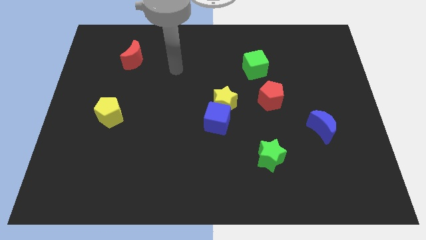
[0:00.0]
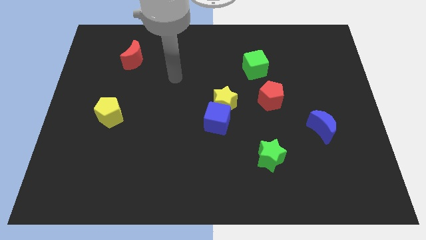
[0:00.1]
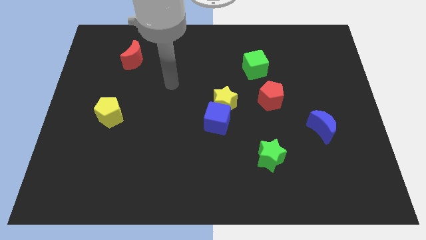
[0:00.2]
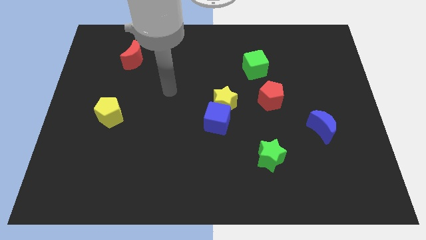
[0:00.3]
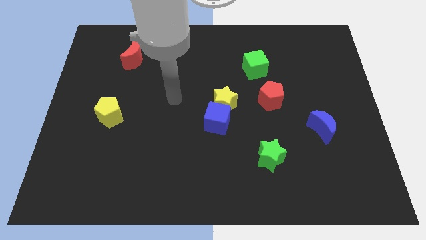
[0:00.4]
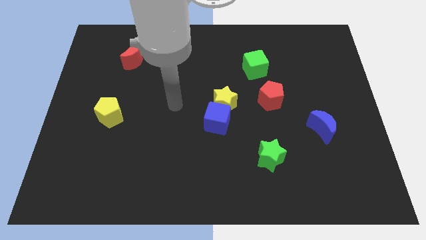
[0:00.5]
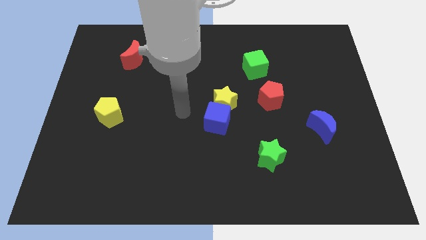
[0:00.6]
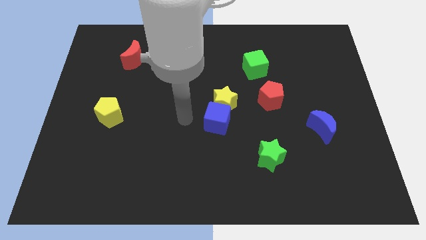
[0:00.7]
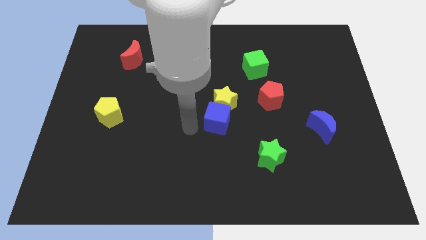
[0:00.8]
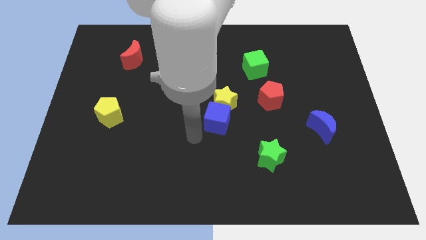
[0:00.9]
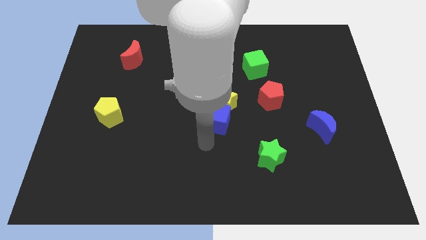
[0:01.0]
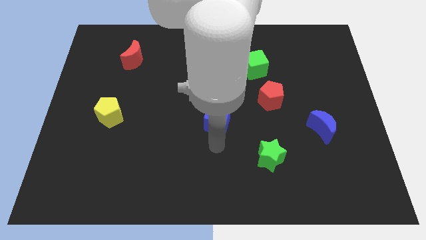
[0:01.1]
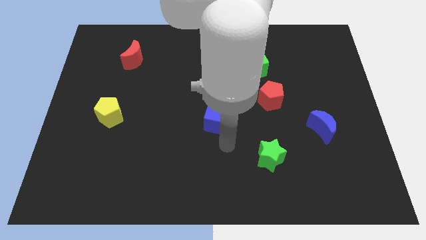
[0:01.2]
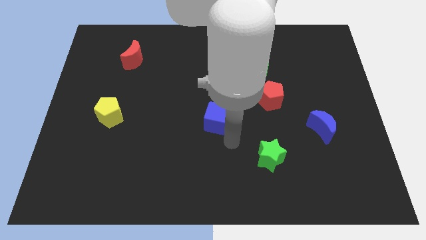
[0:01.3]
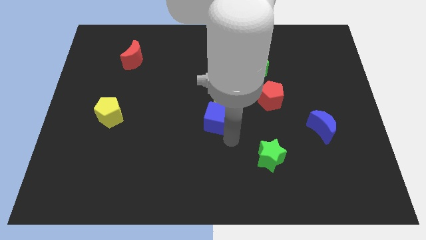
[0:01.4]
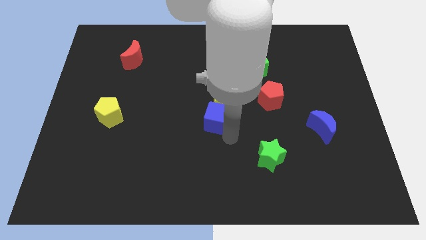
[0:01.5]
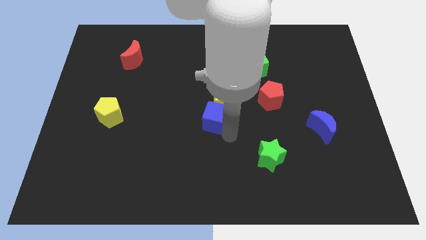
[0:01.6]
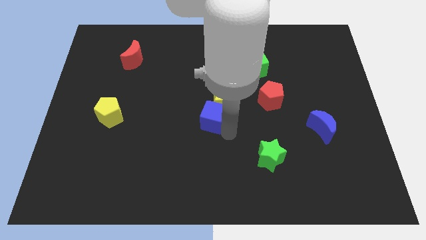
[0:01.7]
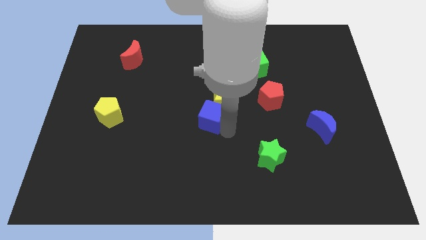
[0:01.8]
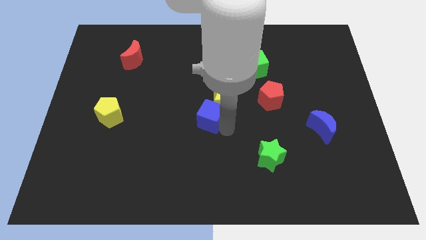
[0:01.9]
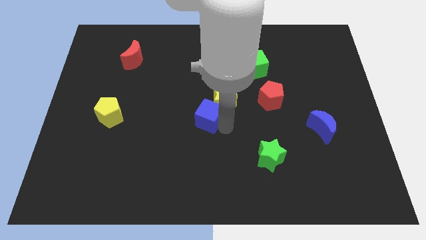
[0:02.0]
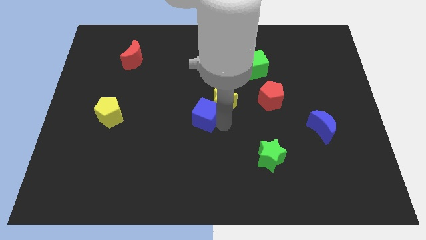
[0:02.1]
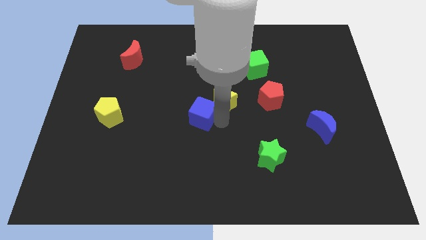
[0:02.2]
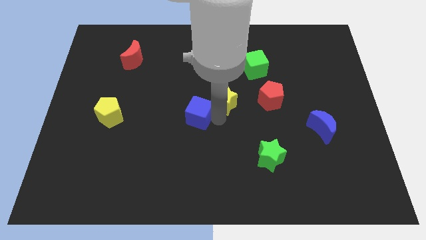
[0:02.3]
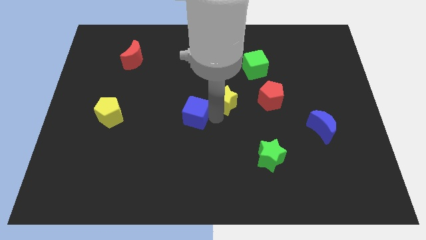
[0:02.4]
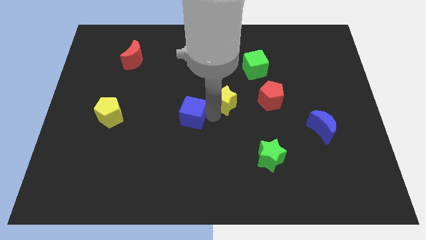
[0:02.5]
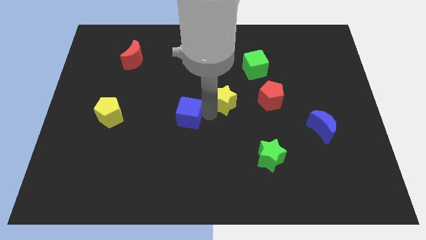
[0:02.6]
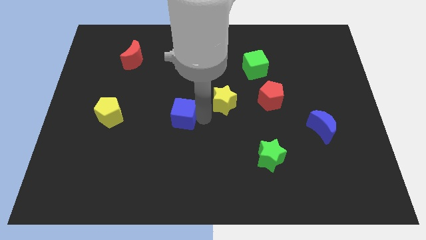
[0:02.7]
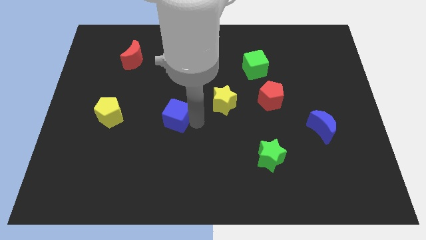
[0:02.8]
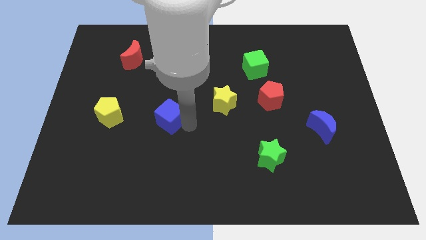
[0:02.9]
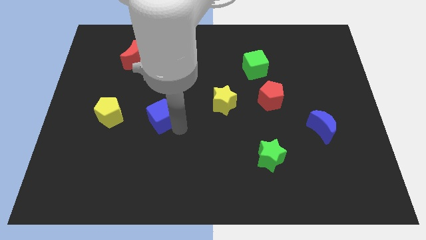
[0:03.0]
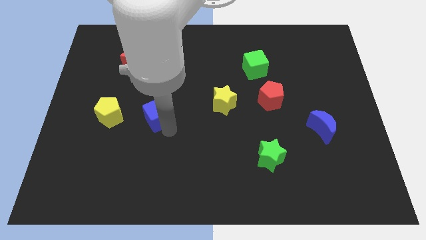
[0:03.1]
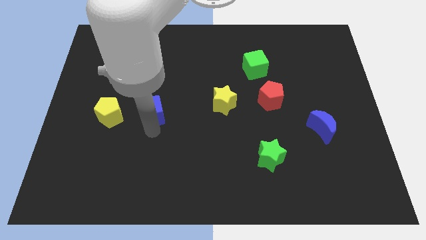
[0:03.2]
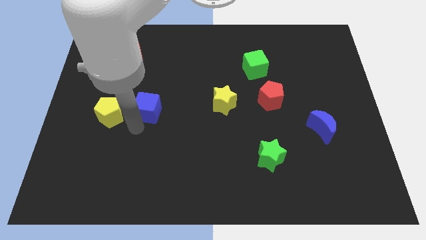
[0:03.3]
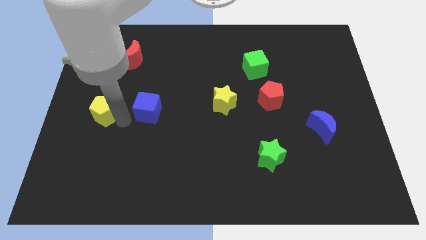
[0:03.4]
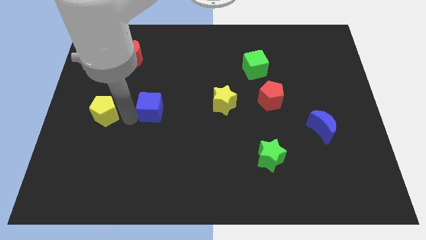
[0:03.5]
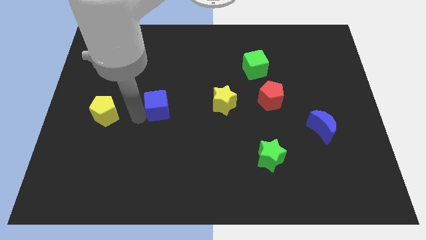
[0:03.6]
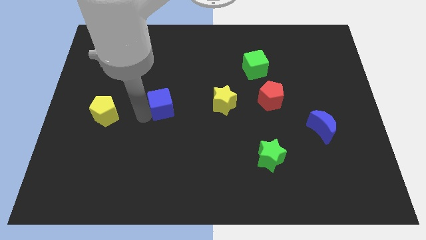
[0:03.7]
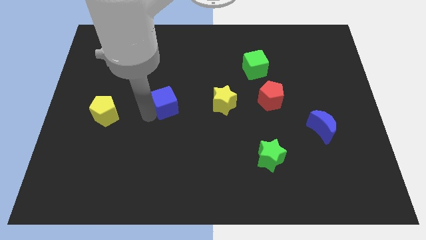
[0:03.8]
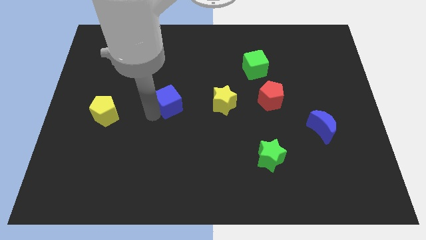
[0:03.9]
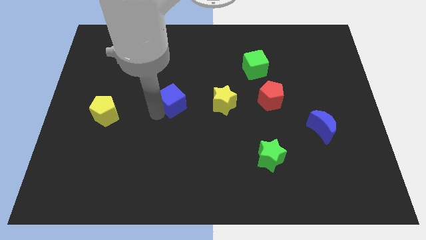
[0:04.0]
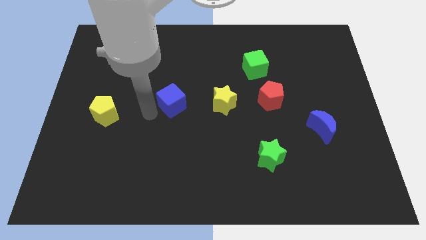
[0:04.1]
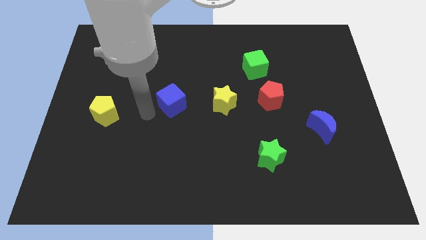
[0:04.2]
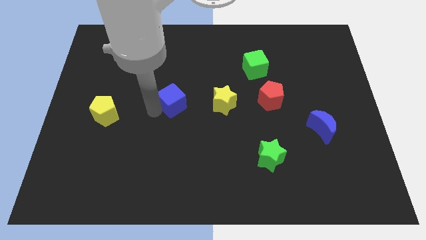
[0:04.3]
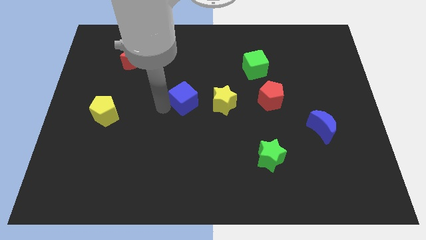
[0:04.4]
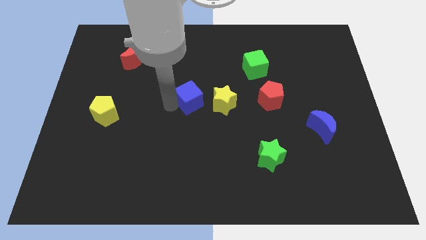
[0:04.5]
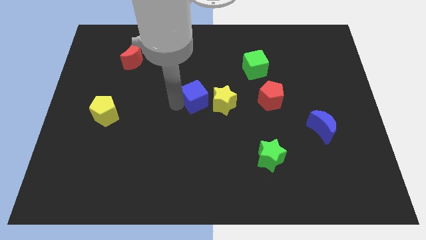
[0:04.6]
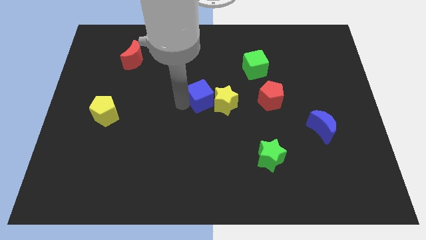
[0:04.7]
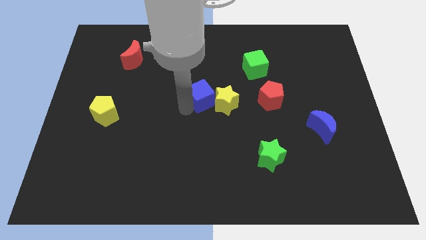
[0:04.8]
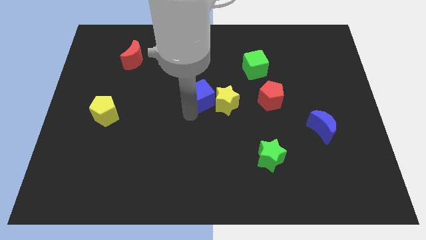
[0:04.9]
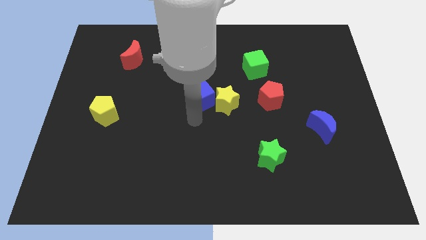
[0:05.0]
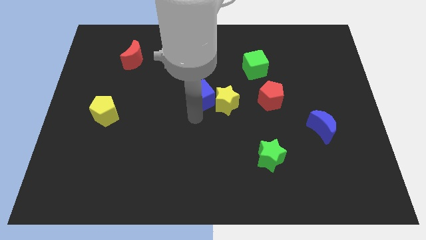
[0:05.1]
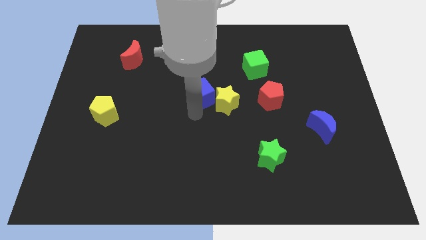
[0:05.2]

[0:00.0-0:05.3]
slightly push the blue cube upwards

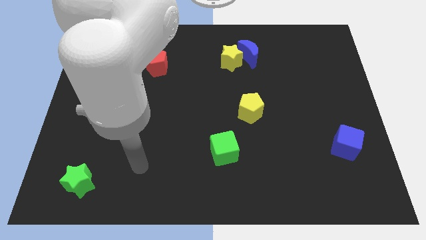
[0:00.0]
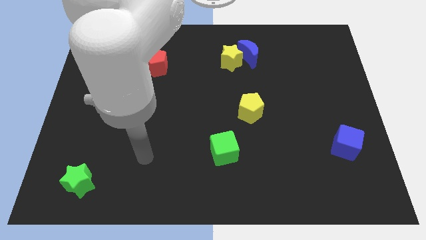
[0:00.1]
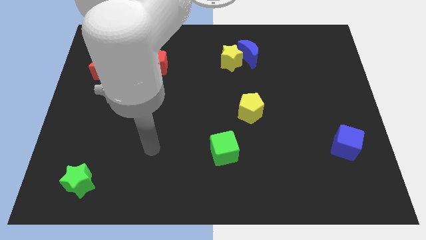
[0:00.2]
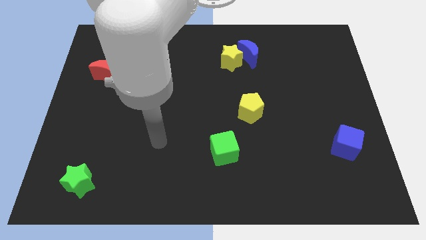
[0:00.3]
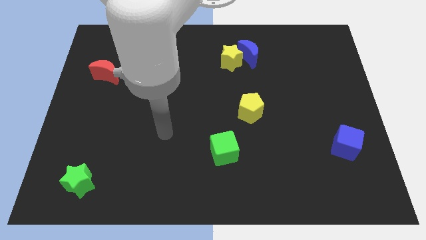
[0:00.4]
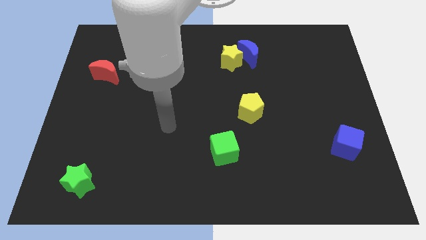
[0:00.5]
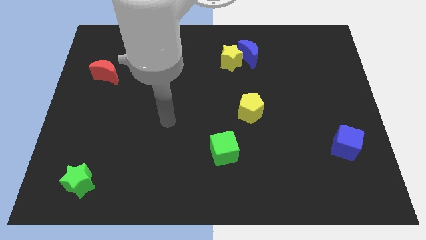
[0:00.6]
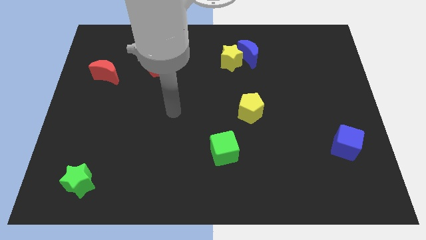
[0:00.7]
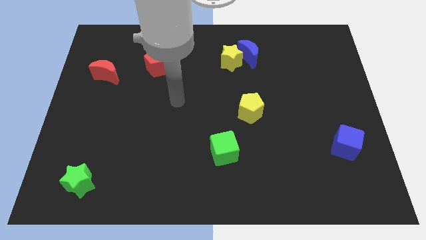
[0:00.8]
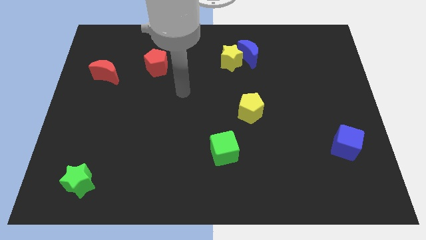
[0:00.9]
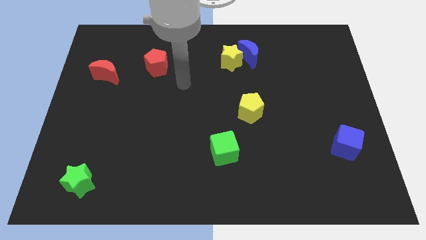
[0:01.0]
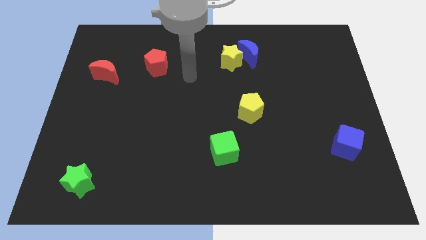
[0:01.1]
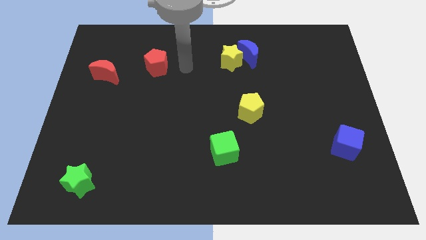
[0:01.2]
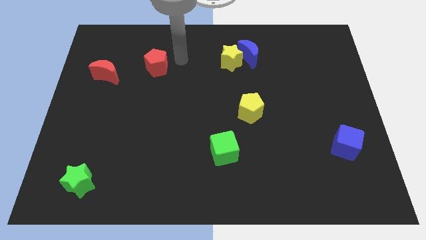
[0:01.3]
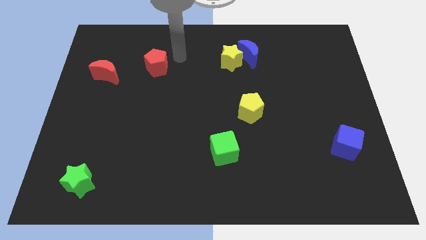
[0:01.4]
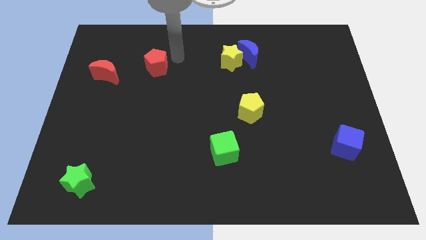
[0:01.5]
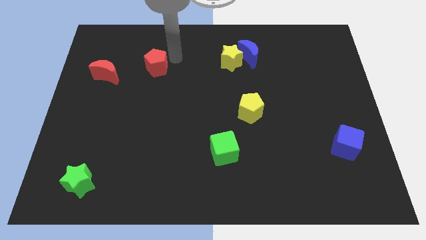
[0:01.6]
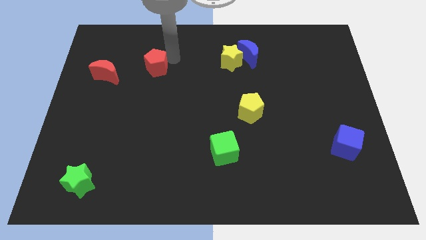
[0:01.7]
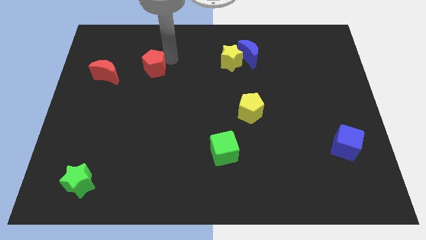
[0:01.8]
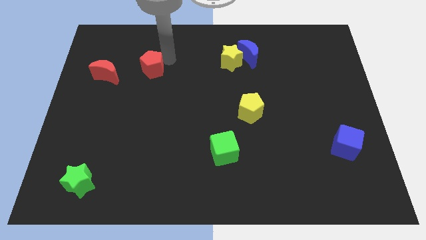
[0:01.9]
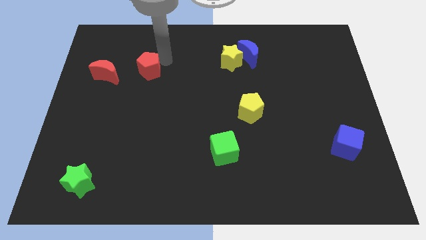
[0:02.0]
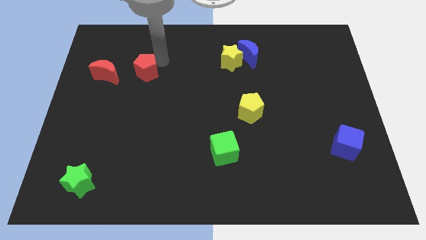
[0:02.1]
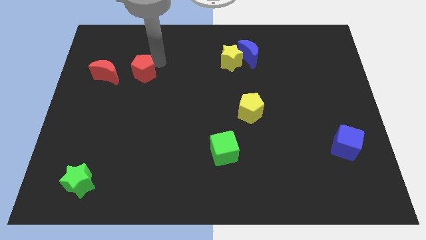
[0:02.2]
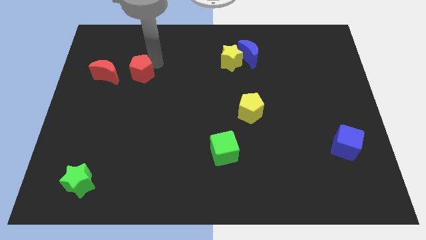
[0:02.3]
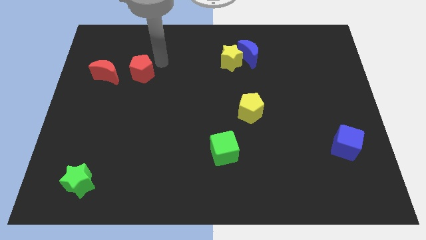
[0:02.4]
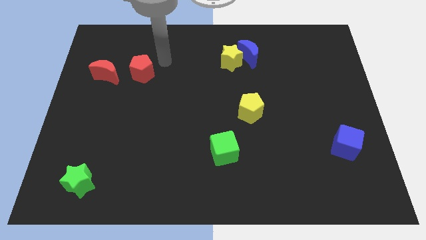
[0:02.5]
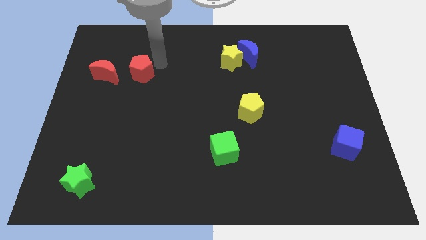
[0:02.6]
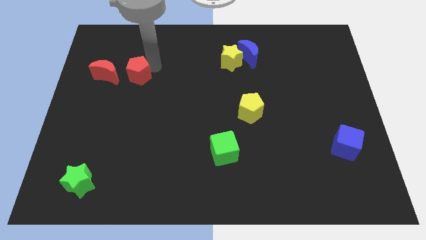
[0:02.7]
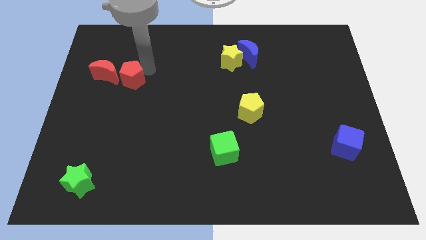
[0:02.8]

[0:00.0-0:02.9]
move the red pentagon downwards and left somewhat

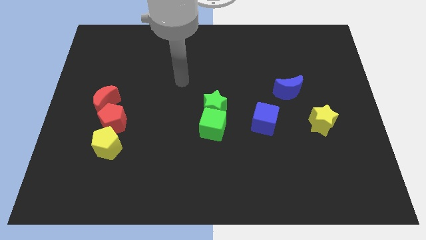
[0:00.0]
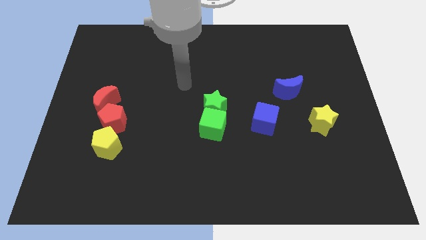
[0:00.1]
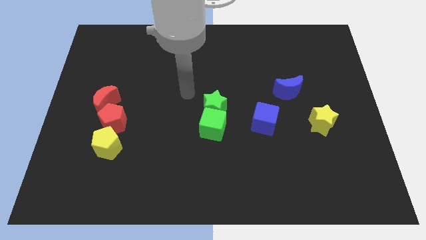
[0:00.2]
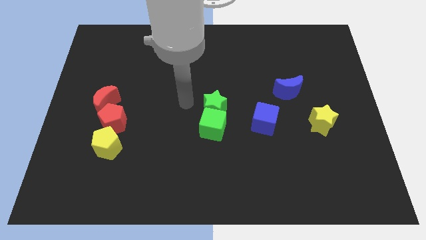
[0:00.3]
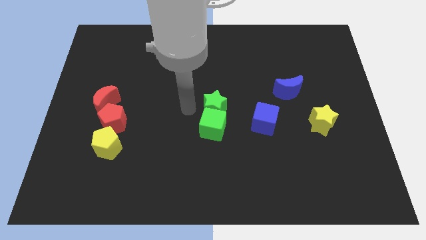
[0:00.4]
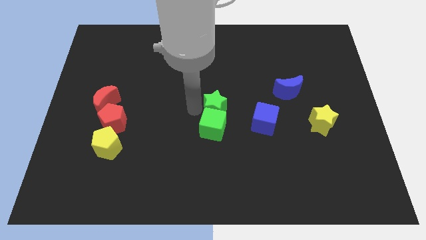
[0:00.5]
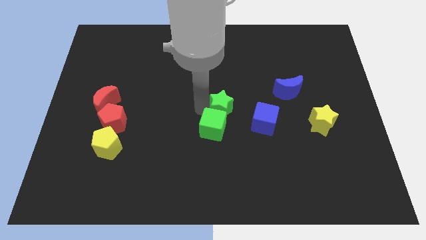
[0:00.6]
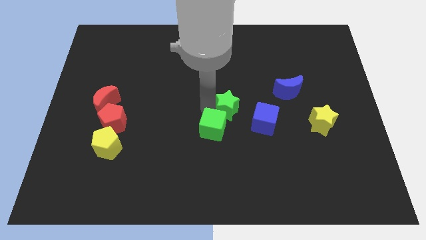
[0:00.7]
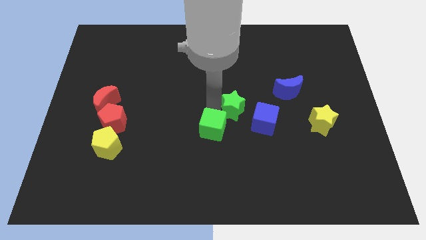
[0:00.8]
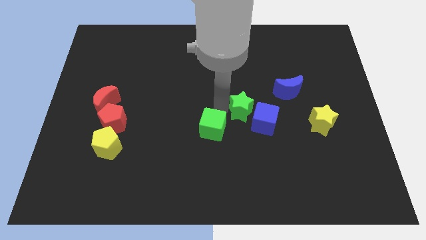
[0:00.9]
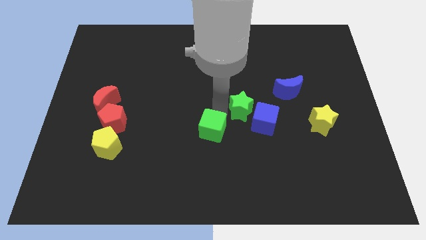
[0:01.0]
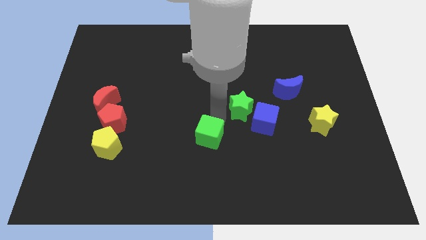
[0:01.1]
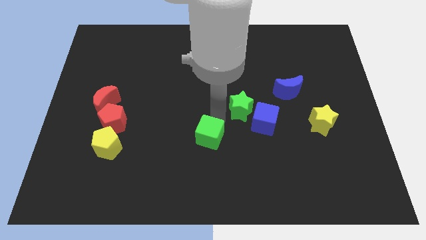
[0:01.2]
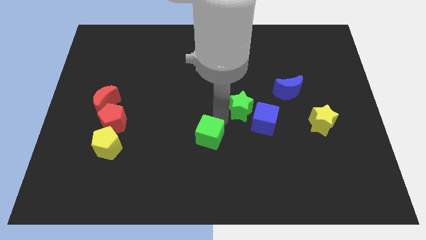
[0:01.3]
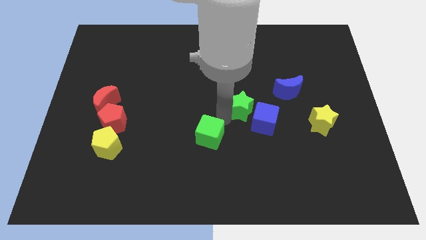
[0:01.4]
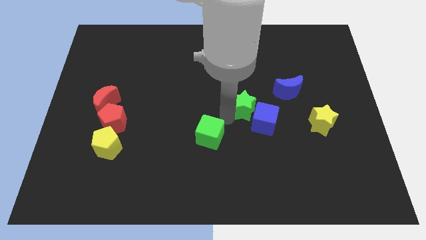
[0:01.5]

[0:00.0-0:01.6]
move the green star a little bit right
